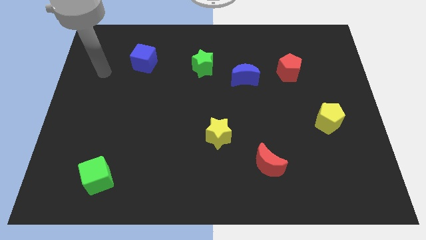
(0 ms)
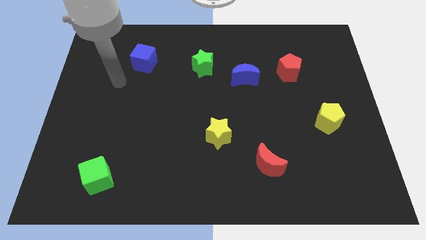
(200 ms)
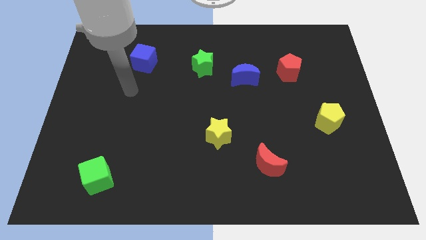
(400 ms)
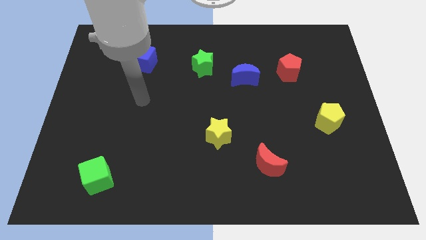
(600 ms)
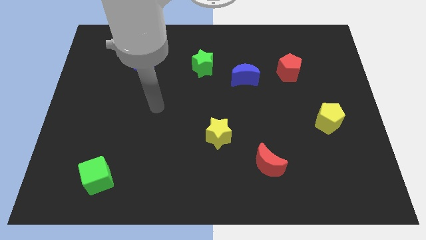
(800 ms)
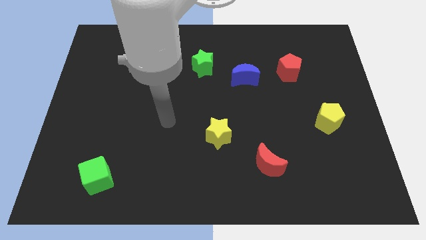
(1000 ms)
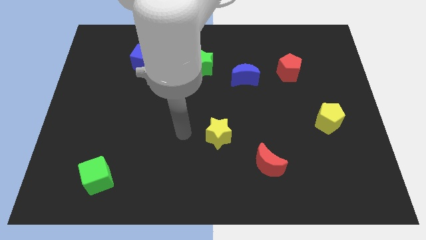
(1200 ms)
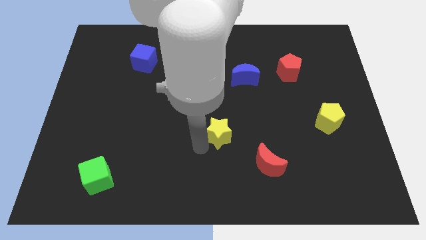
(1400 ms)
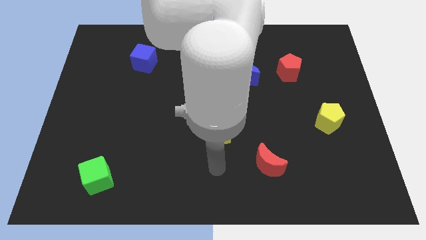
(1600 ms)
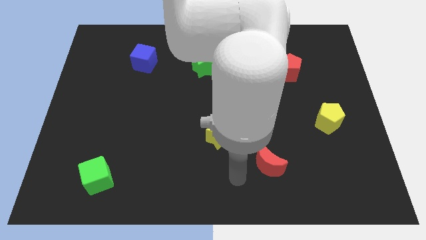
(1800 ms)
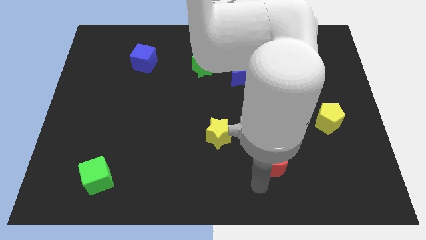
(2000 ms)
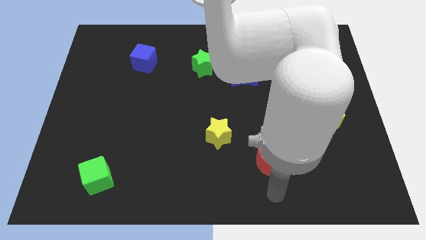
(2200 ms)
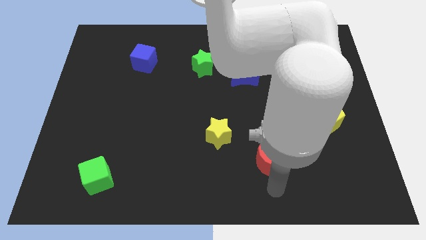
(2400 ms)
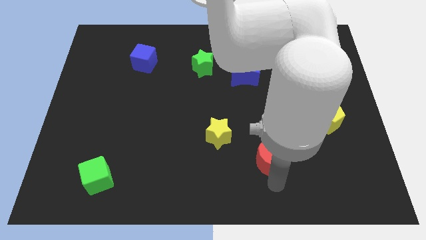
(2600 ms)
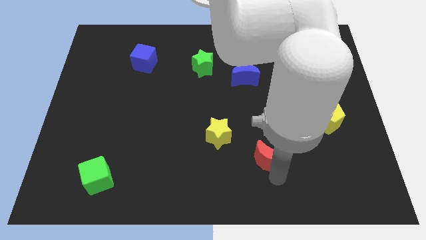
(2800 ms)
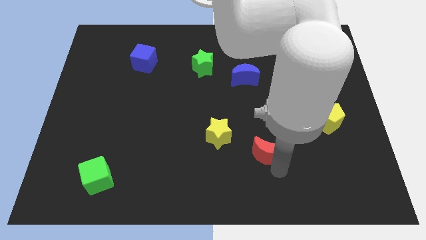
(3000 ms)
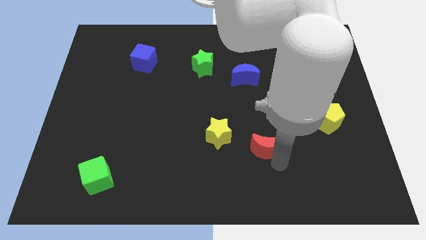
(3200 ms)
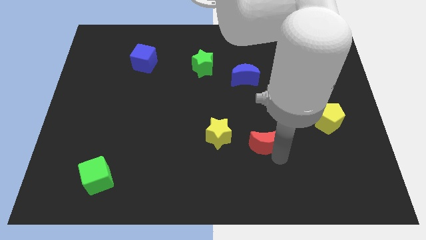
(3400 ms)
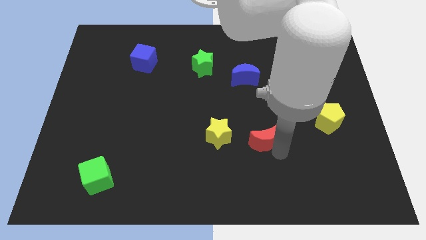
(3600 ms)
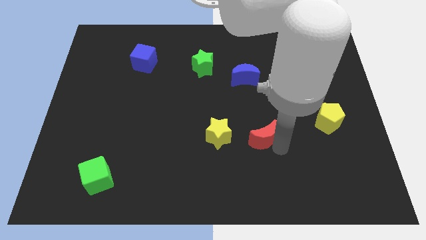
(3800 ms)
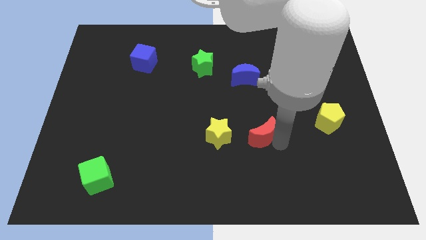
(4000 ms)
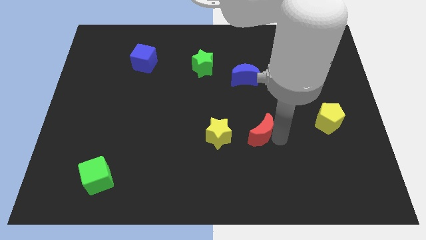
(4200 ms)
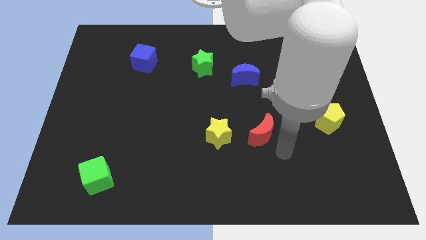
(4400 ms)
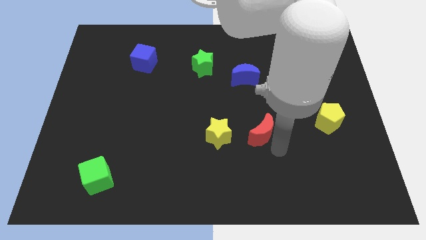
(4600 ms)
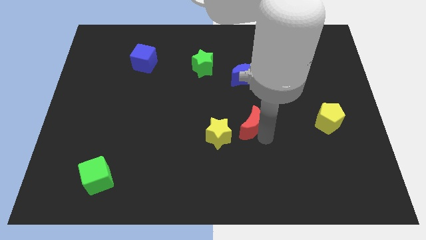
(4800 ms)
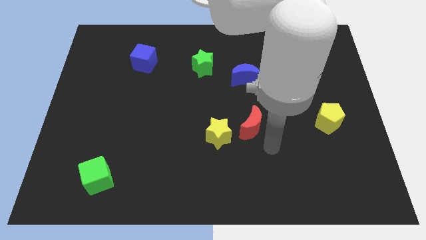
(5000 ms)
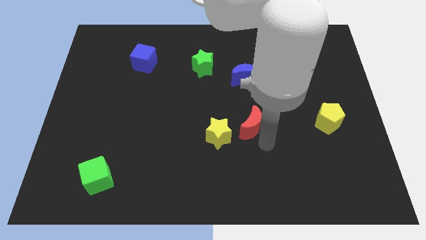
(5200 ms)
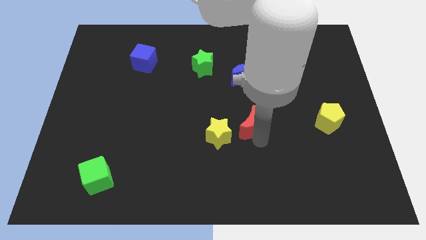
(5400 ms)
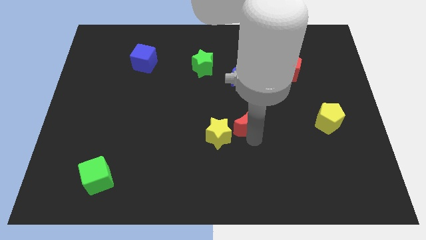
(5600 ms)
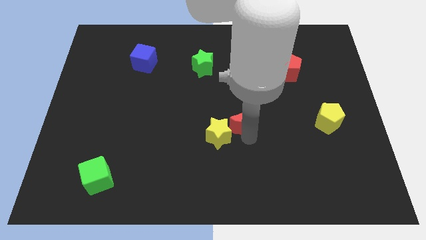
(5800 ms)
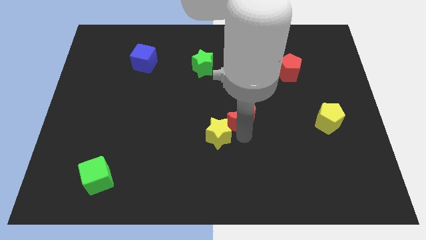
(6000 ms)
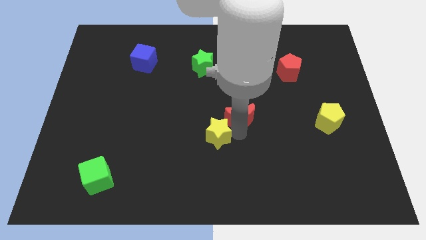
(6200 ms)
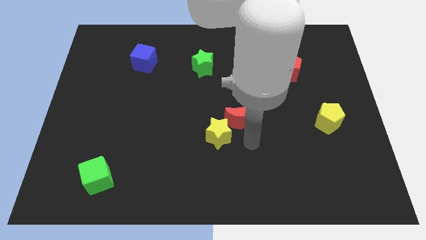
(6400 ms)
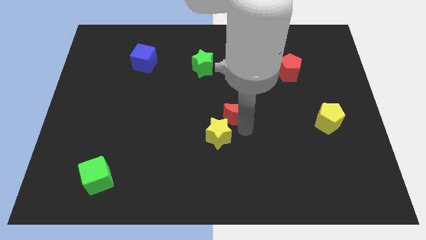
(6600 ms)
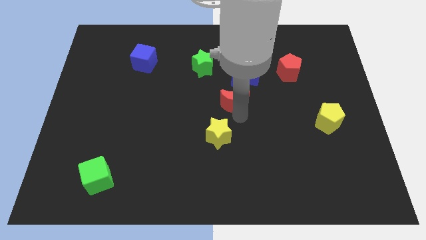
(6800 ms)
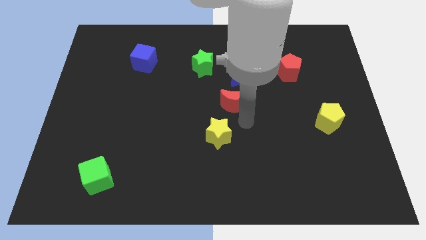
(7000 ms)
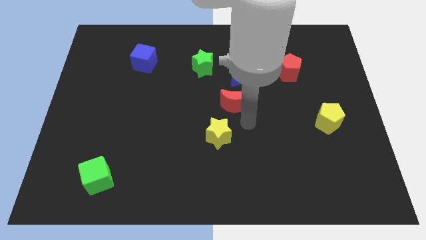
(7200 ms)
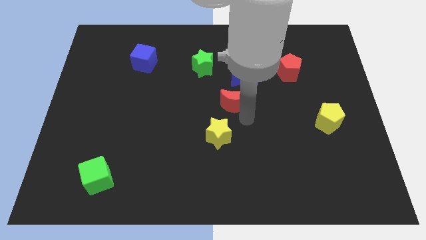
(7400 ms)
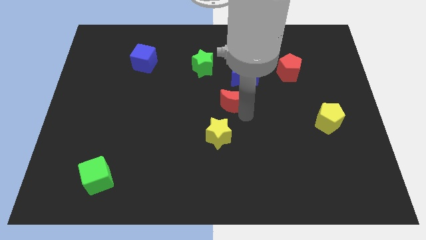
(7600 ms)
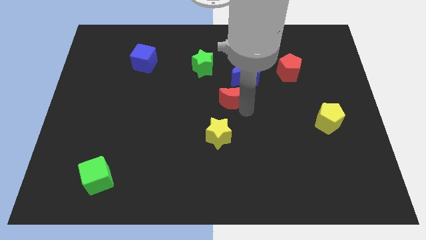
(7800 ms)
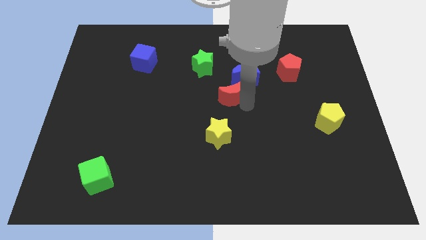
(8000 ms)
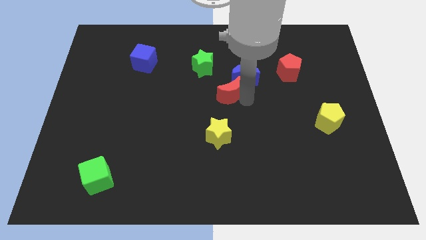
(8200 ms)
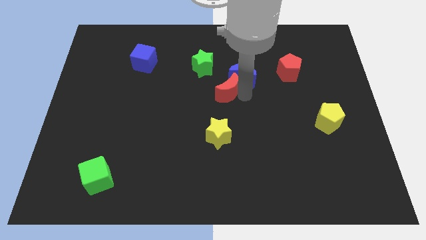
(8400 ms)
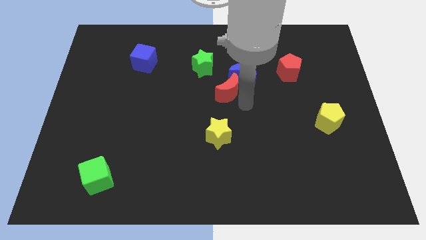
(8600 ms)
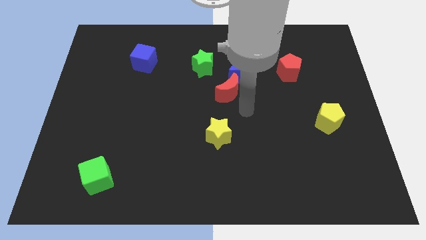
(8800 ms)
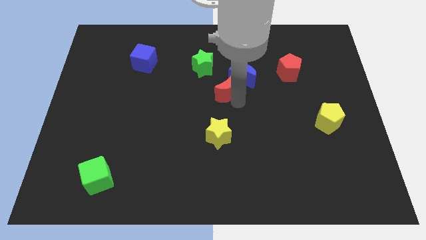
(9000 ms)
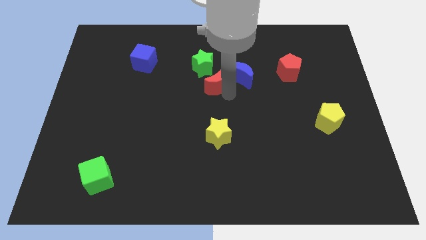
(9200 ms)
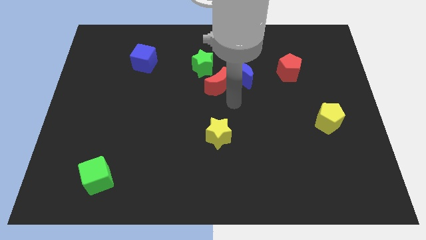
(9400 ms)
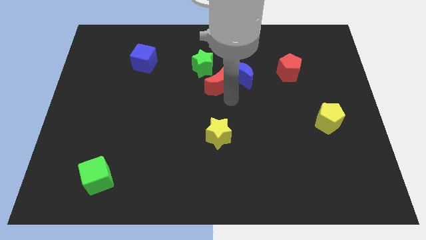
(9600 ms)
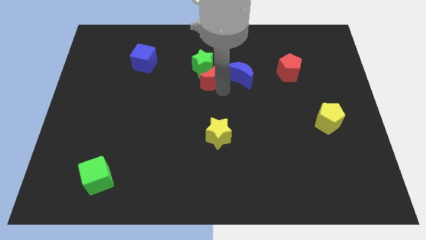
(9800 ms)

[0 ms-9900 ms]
put the red moon next to the green star

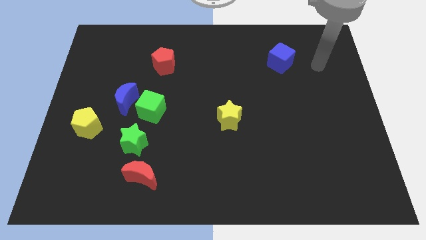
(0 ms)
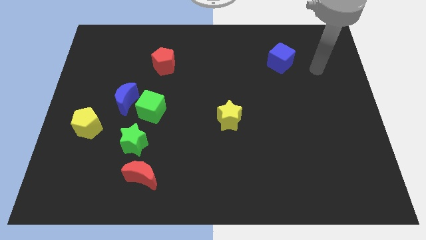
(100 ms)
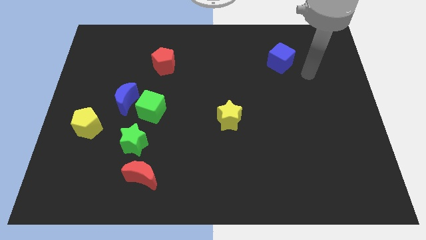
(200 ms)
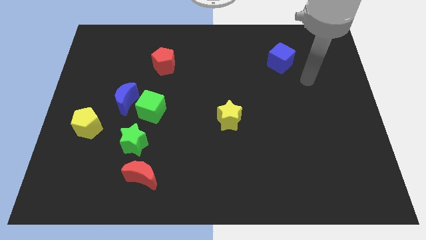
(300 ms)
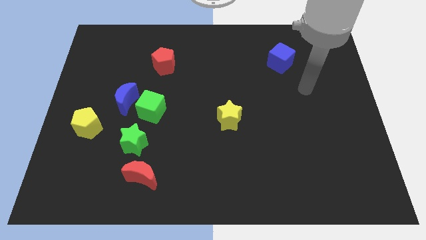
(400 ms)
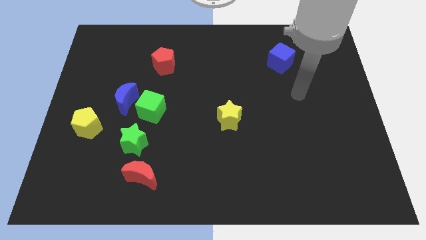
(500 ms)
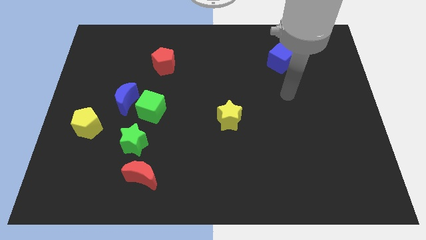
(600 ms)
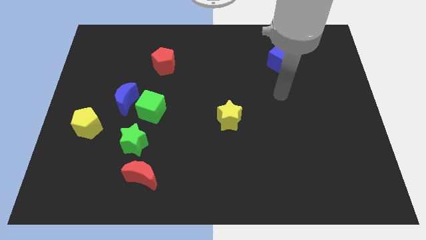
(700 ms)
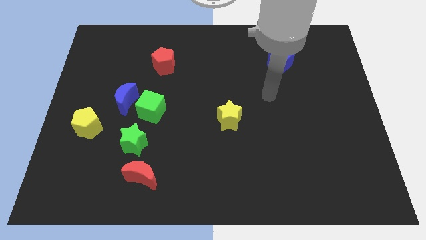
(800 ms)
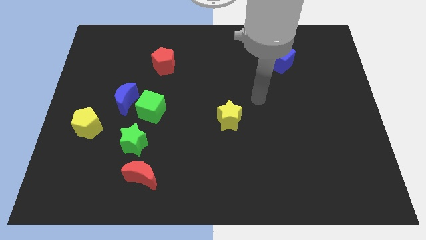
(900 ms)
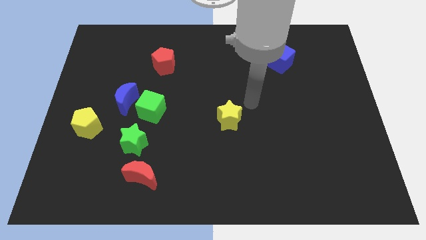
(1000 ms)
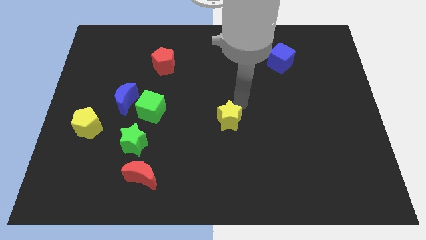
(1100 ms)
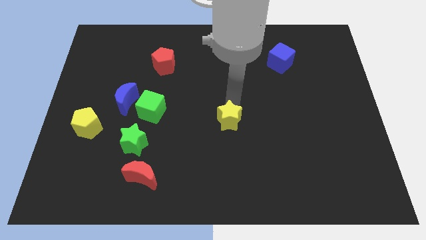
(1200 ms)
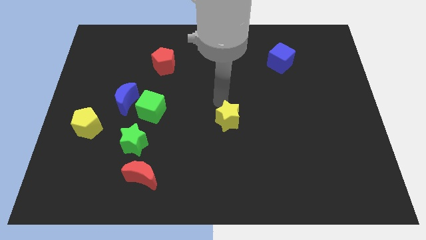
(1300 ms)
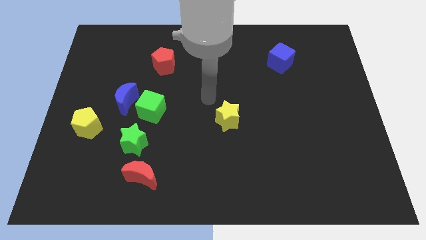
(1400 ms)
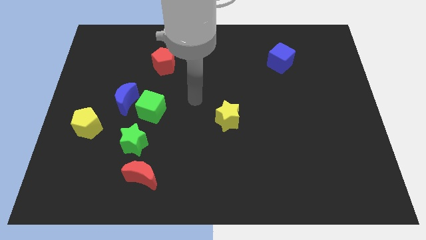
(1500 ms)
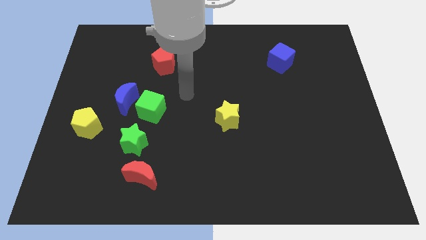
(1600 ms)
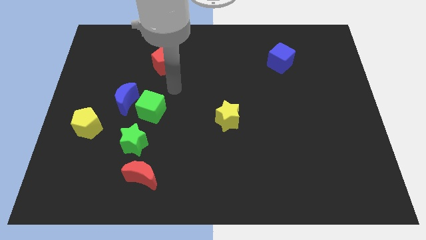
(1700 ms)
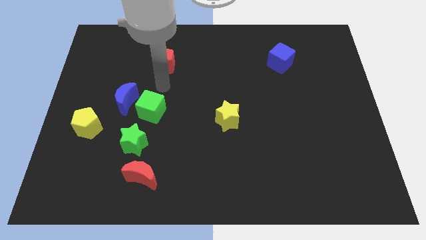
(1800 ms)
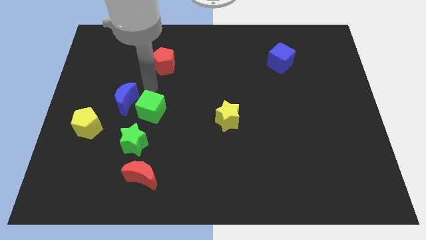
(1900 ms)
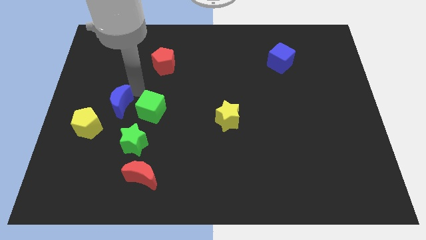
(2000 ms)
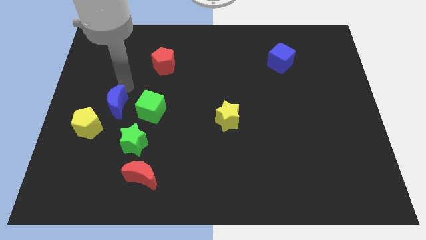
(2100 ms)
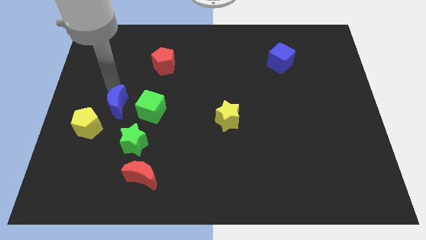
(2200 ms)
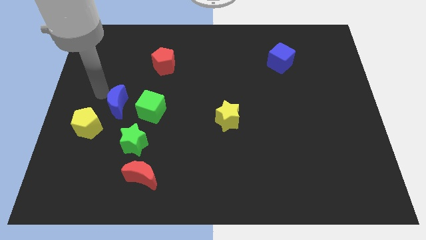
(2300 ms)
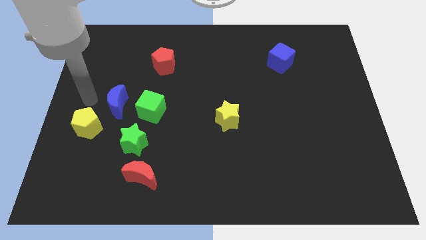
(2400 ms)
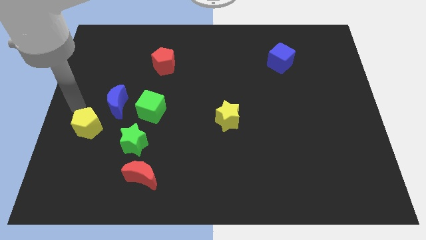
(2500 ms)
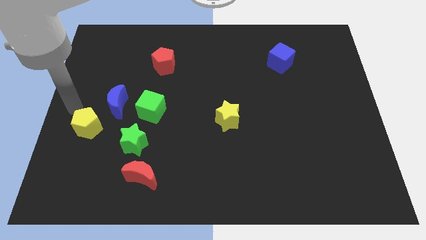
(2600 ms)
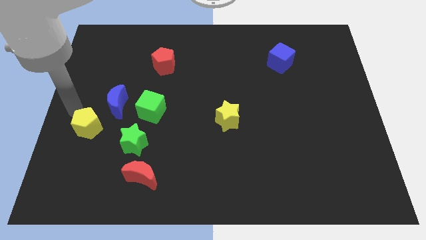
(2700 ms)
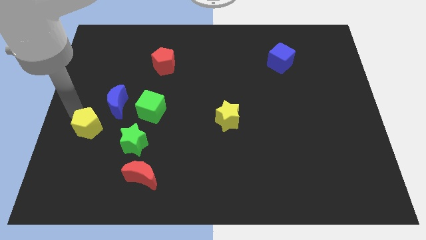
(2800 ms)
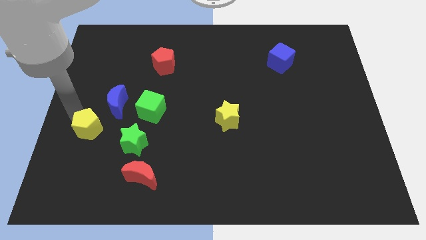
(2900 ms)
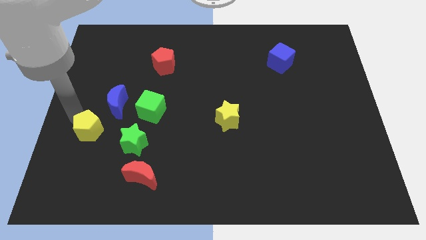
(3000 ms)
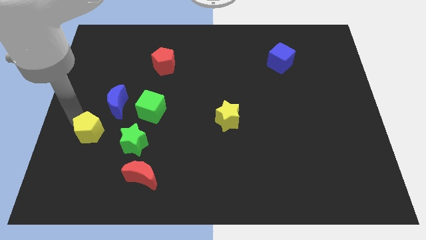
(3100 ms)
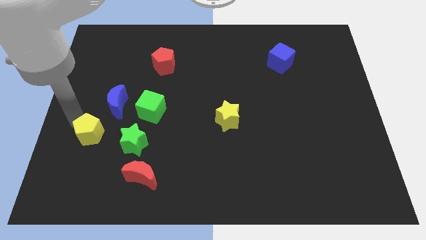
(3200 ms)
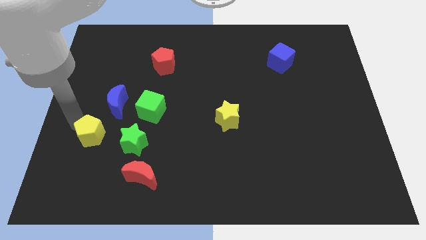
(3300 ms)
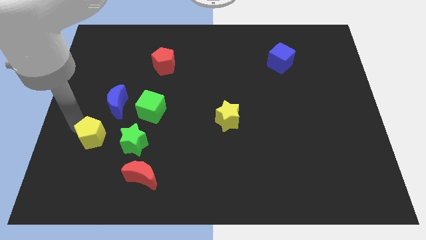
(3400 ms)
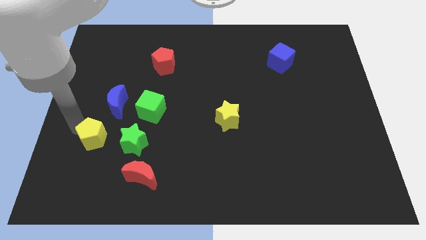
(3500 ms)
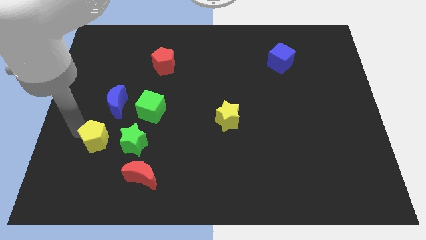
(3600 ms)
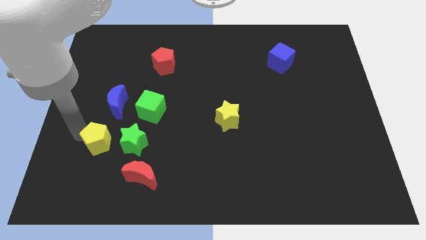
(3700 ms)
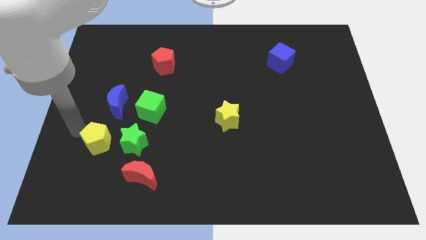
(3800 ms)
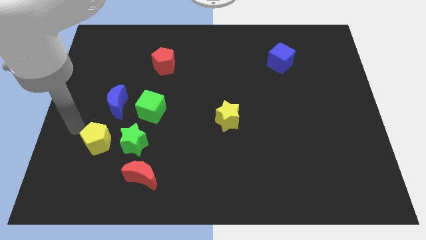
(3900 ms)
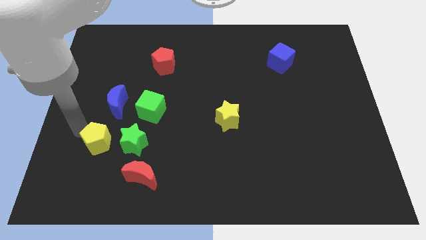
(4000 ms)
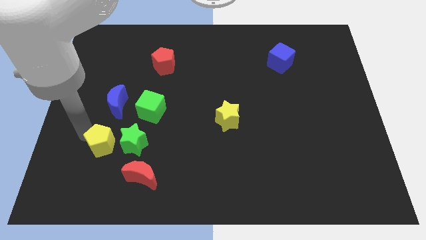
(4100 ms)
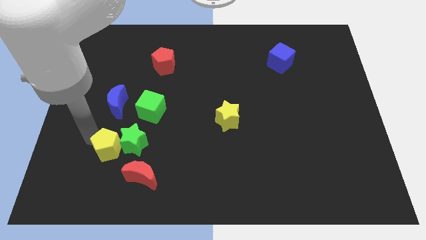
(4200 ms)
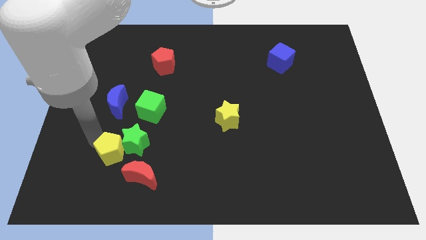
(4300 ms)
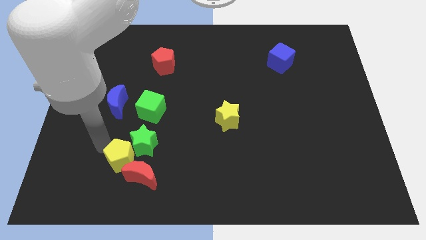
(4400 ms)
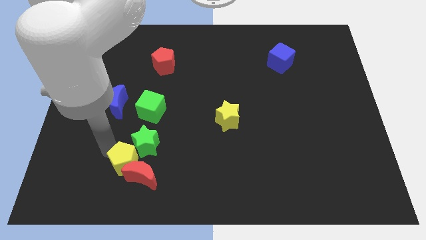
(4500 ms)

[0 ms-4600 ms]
slide the yellow pentagon close to the red moon
